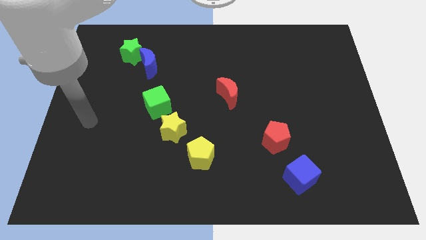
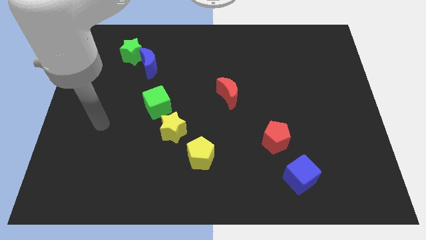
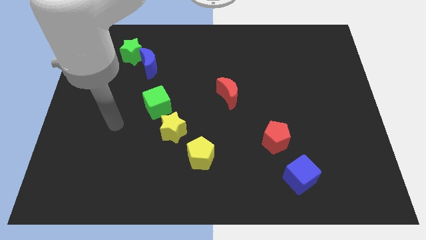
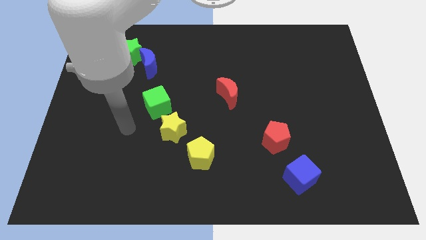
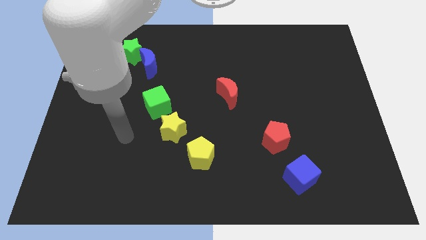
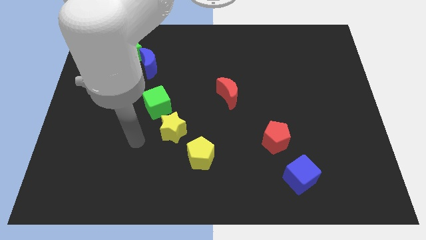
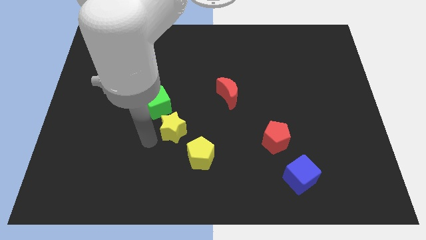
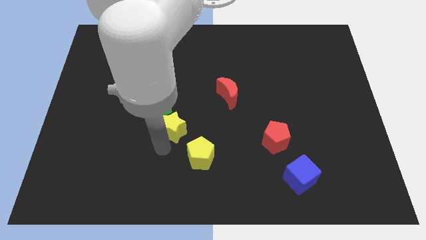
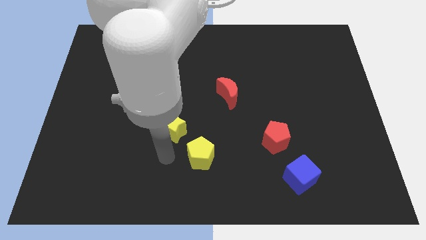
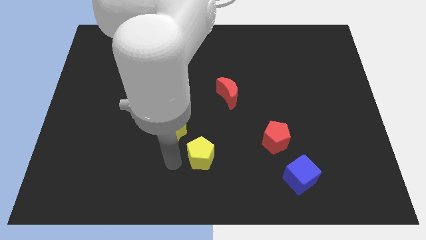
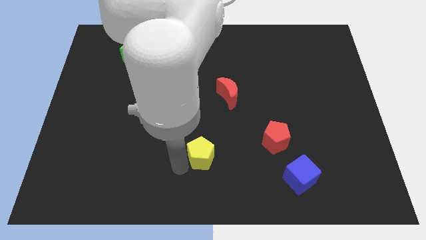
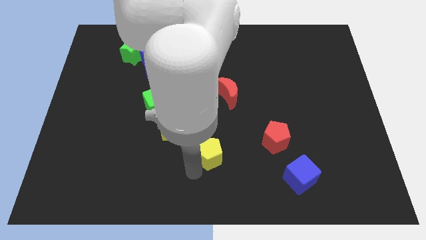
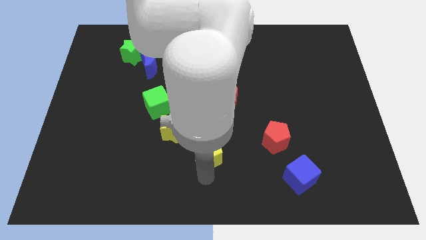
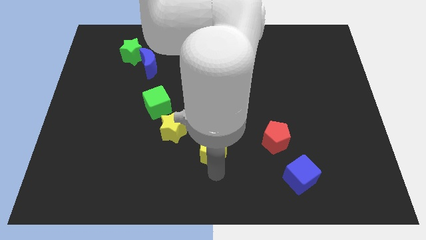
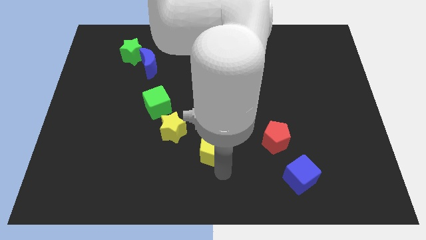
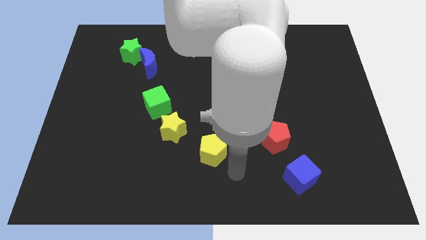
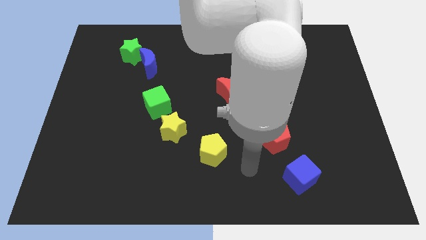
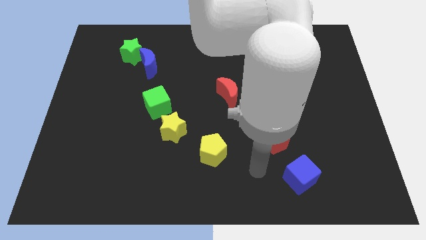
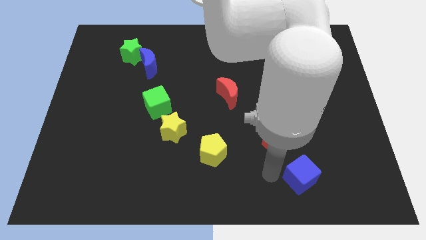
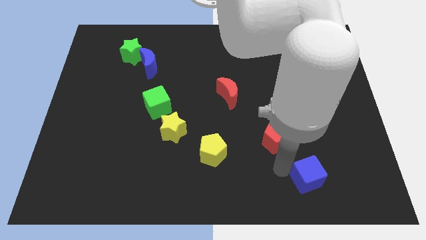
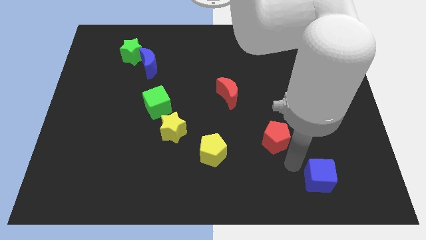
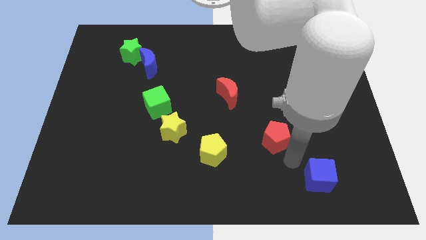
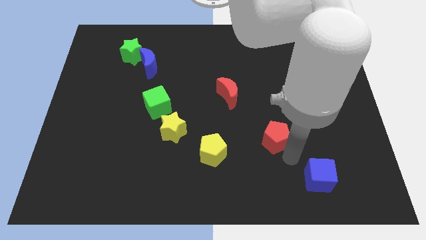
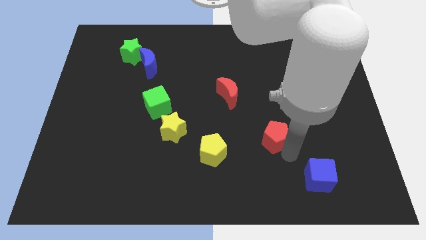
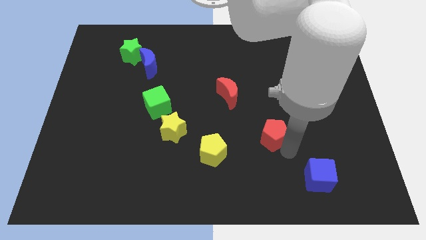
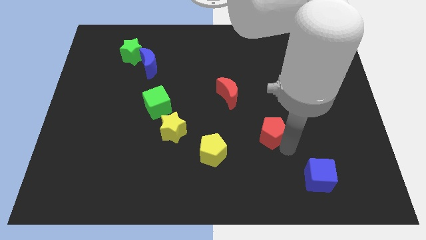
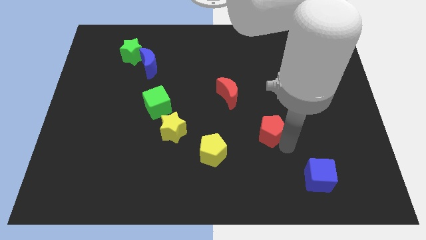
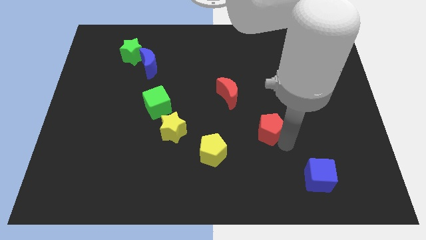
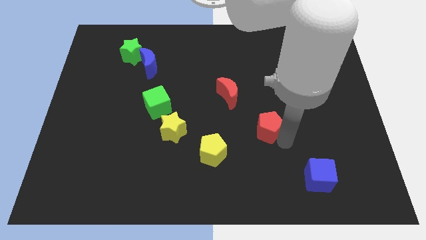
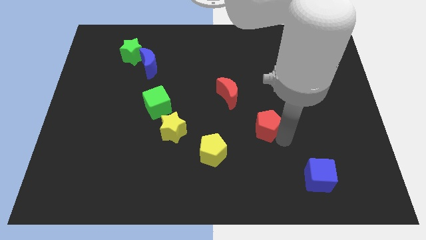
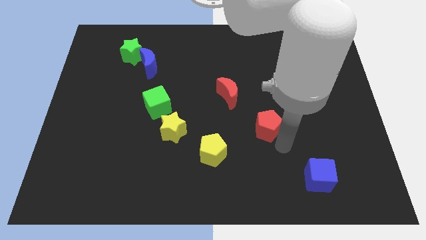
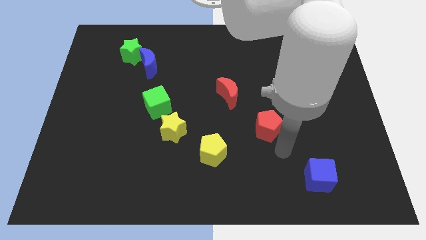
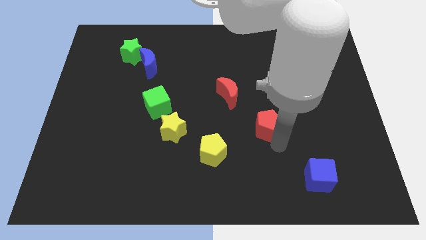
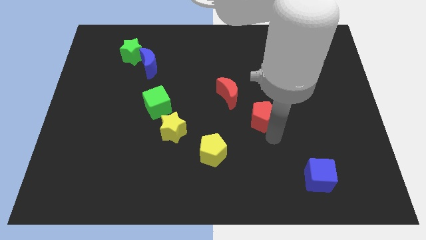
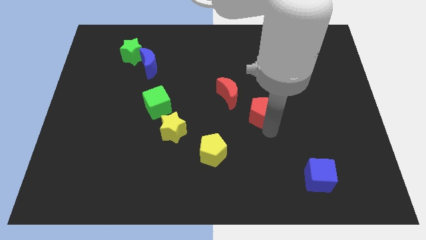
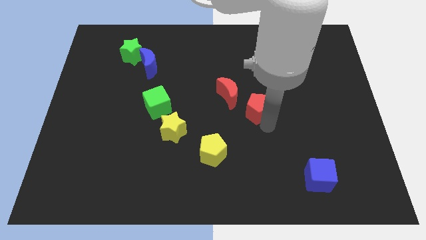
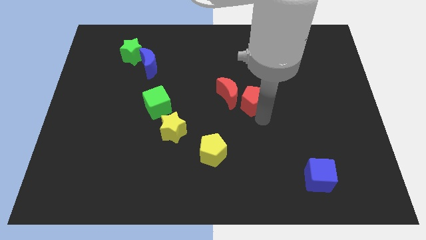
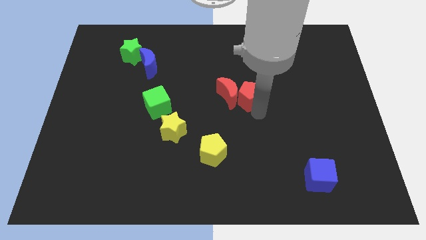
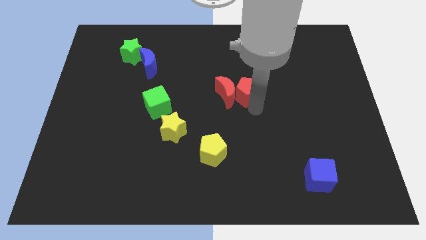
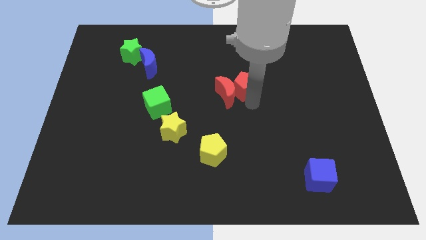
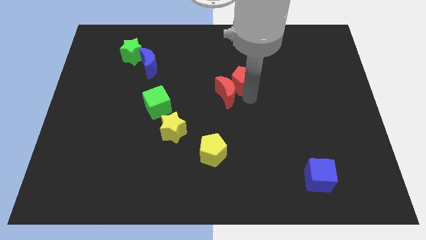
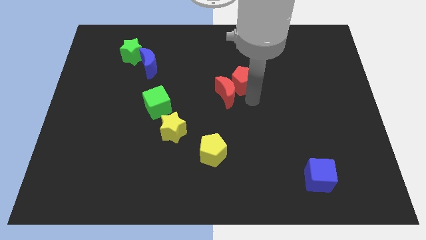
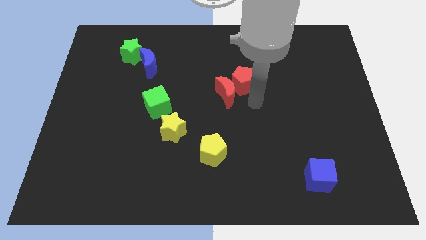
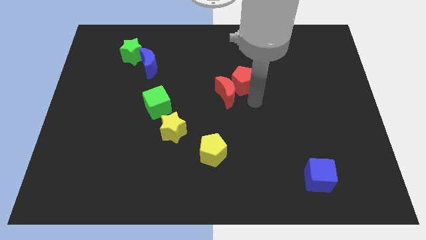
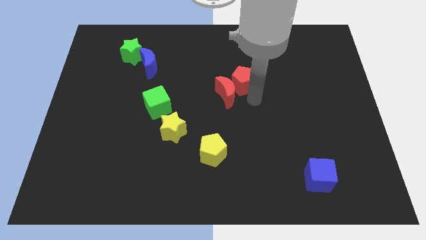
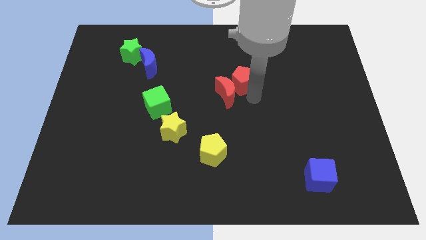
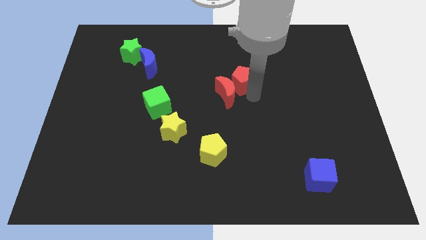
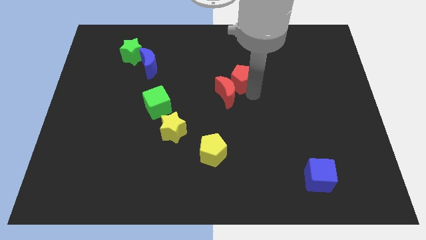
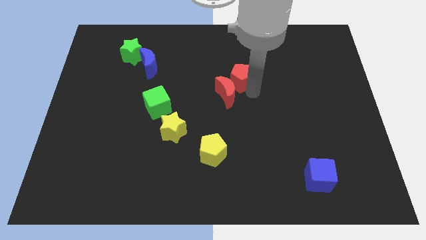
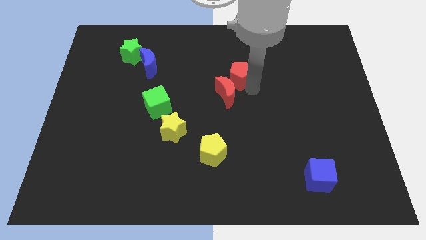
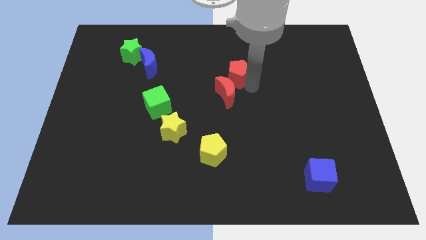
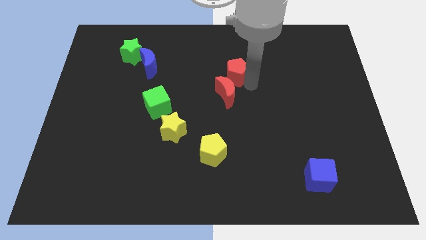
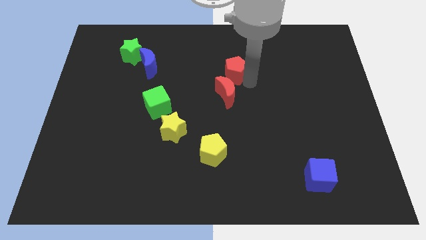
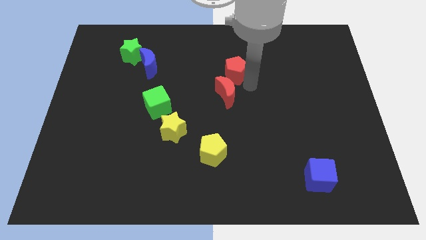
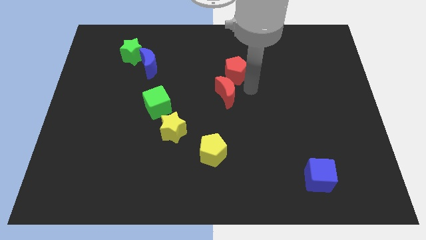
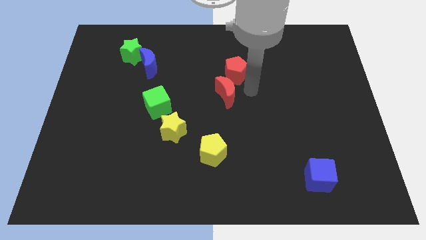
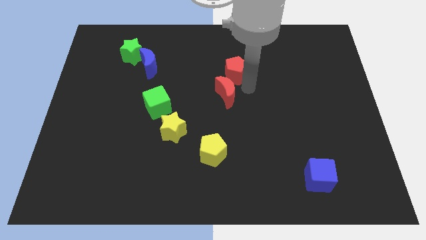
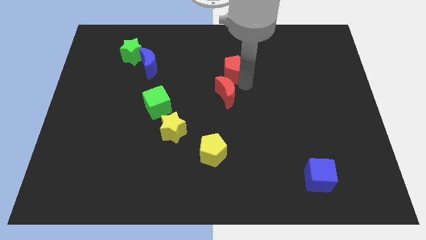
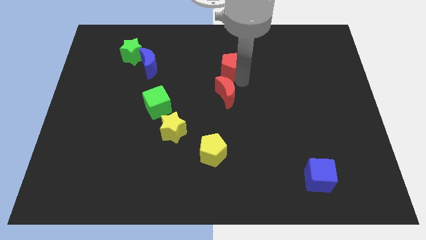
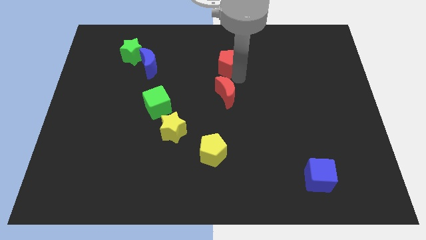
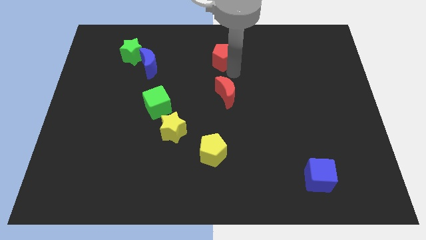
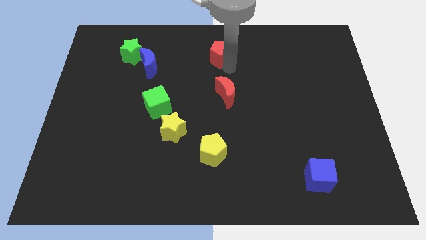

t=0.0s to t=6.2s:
put the red pentagon to the top side
